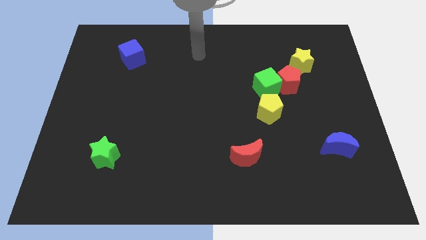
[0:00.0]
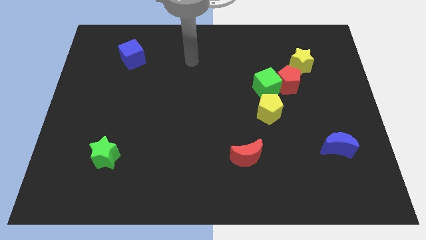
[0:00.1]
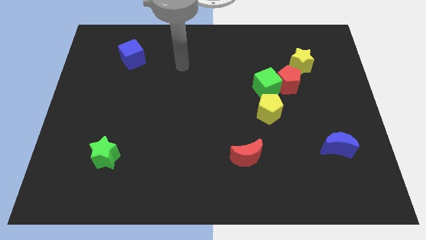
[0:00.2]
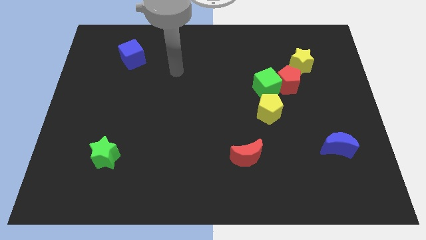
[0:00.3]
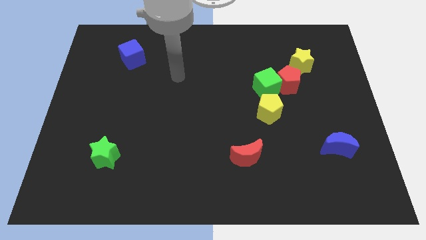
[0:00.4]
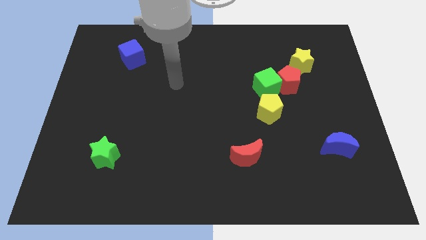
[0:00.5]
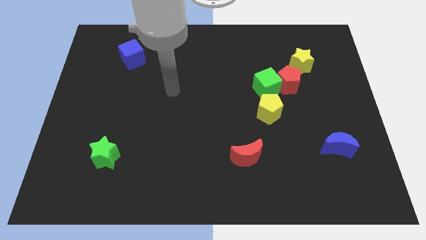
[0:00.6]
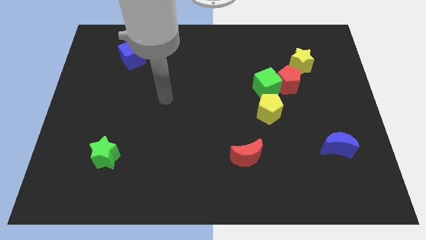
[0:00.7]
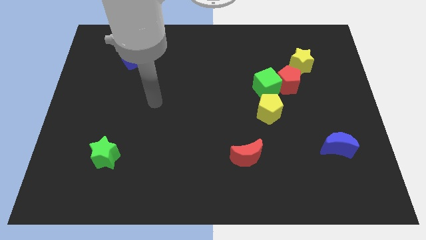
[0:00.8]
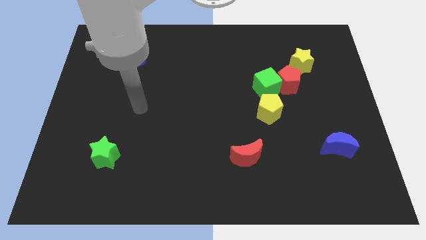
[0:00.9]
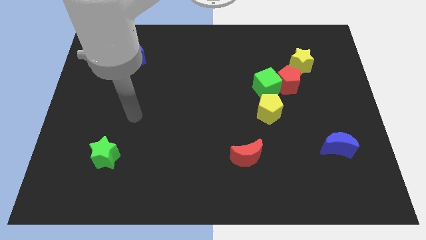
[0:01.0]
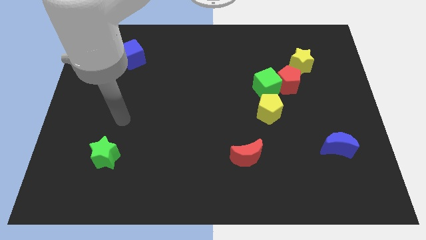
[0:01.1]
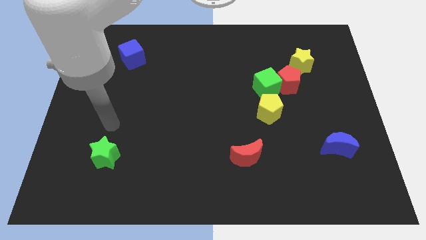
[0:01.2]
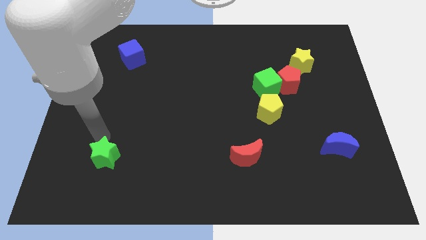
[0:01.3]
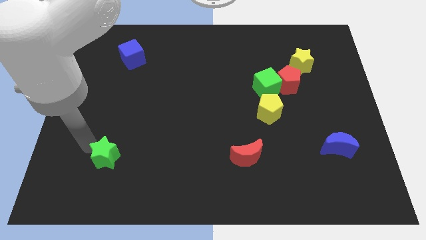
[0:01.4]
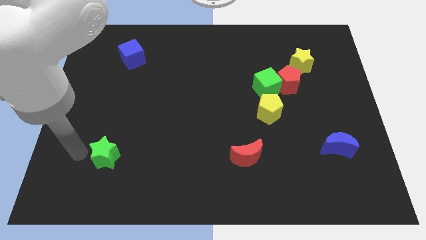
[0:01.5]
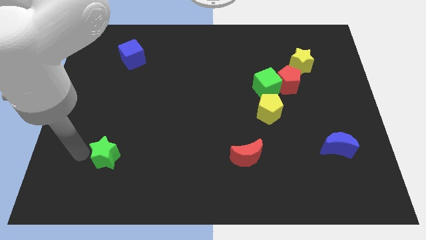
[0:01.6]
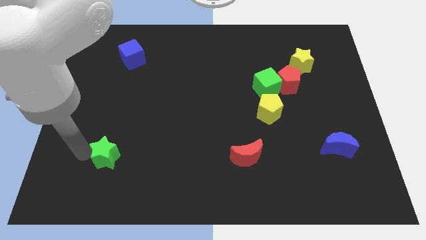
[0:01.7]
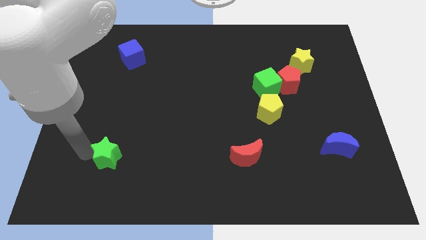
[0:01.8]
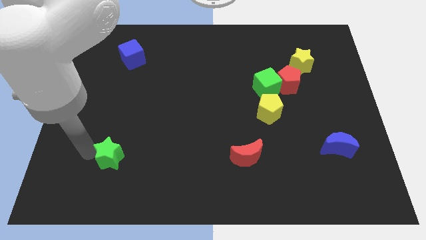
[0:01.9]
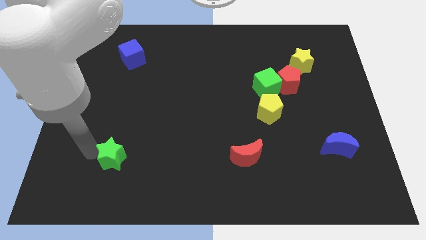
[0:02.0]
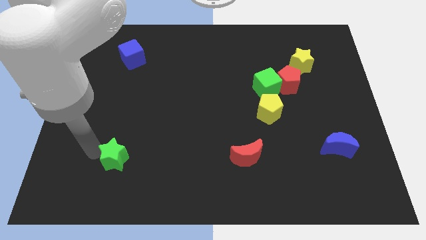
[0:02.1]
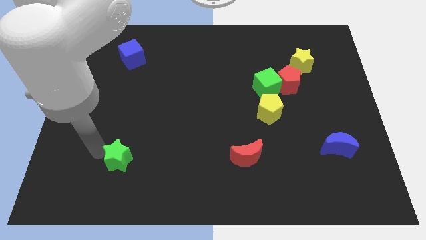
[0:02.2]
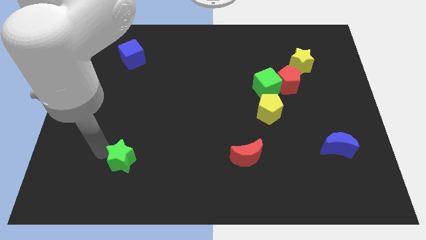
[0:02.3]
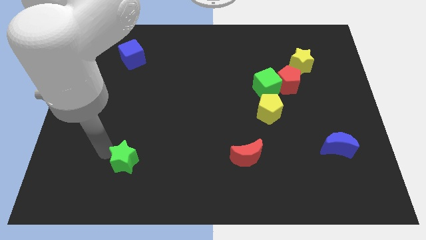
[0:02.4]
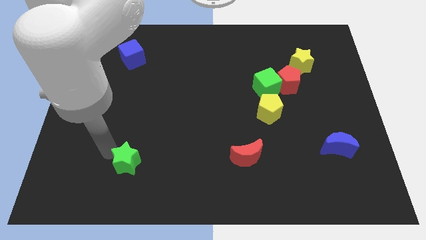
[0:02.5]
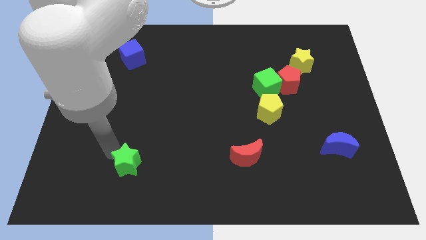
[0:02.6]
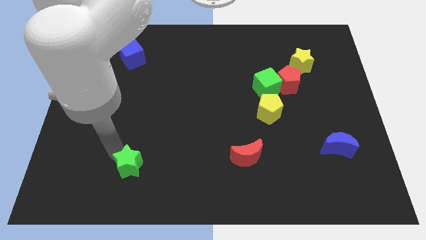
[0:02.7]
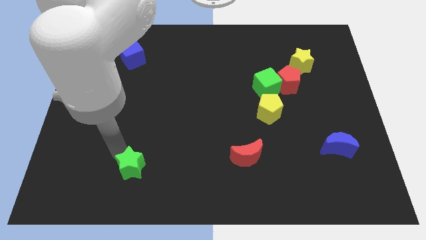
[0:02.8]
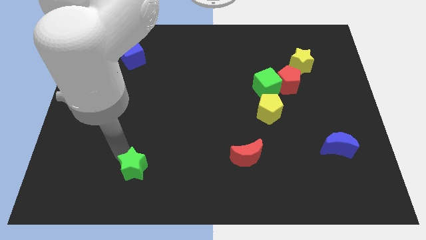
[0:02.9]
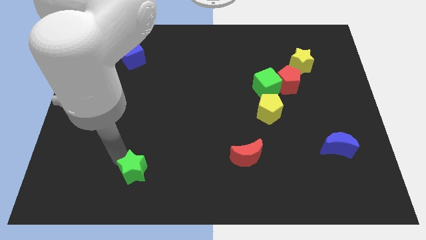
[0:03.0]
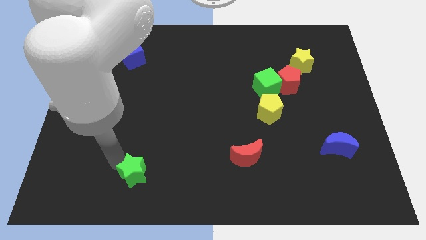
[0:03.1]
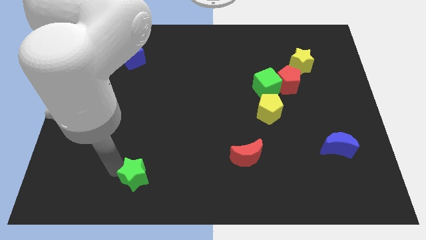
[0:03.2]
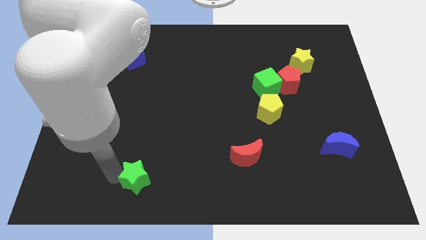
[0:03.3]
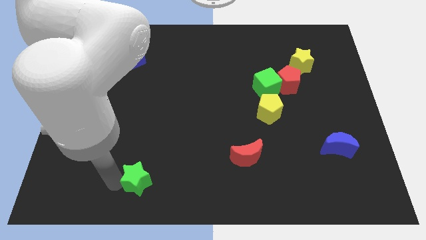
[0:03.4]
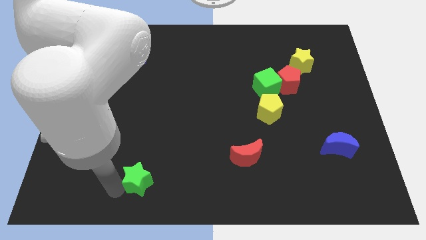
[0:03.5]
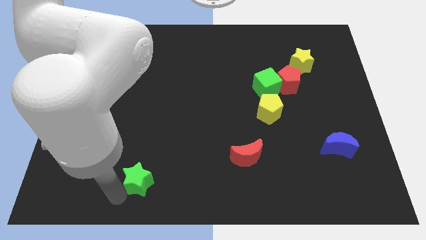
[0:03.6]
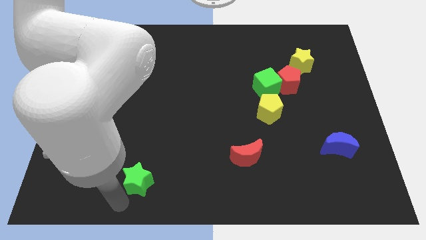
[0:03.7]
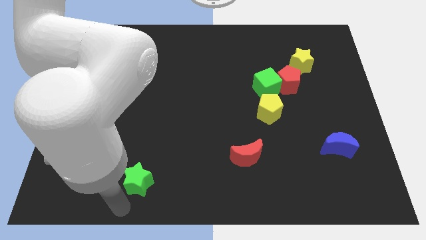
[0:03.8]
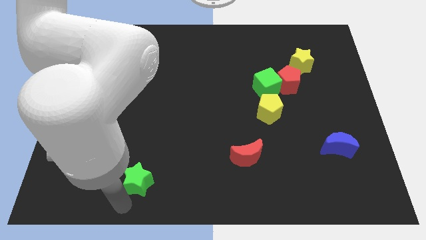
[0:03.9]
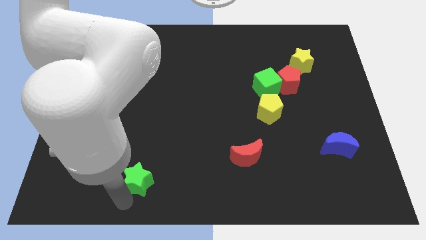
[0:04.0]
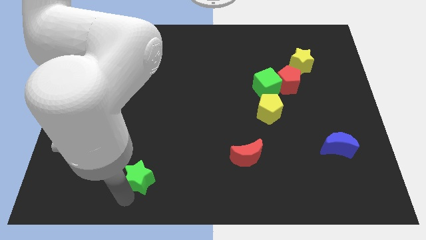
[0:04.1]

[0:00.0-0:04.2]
push the green star right a little bit

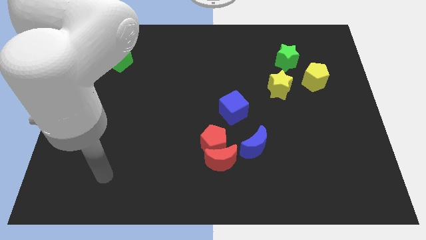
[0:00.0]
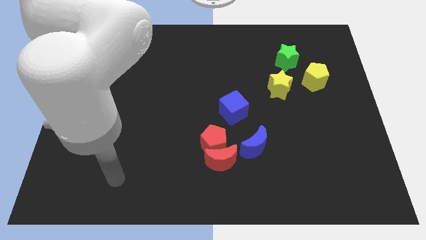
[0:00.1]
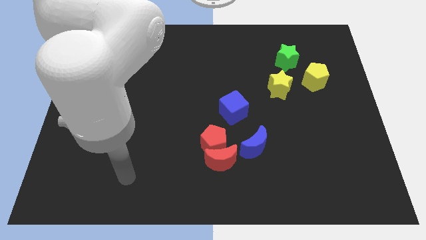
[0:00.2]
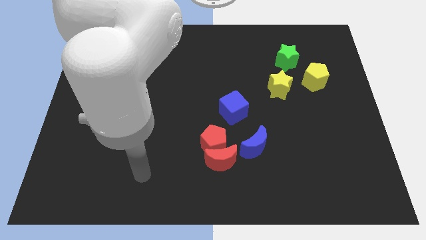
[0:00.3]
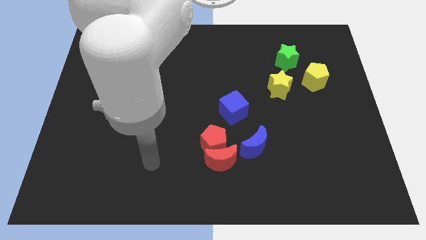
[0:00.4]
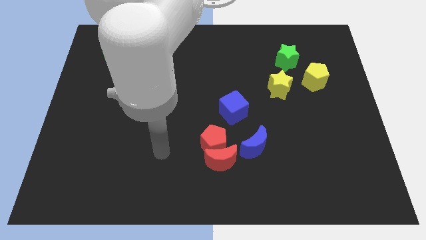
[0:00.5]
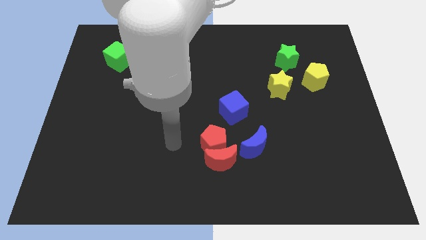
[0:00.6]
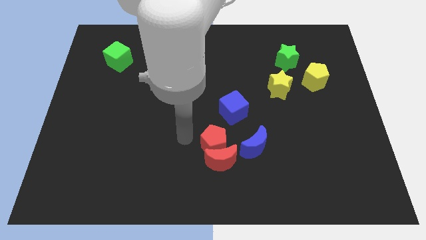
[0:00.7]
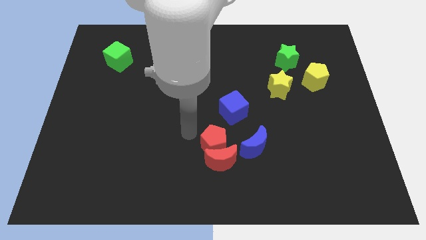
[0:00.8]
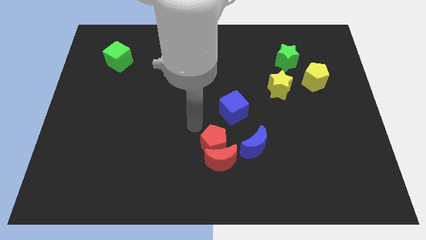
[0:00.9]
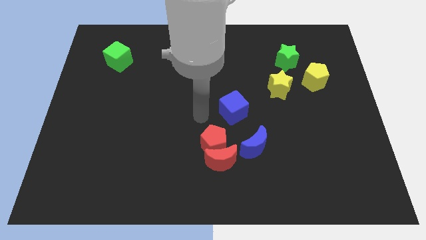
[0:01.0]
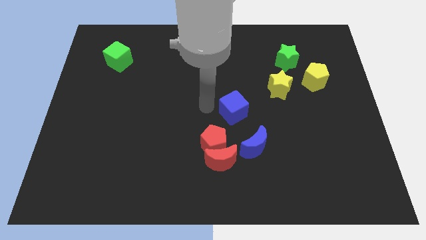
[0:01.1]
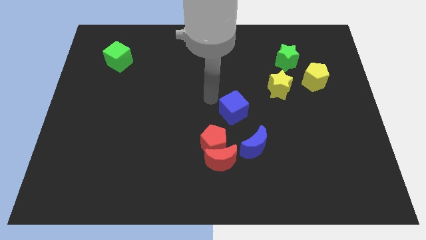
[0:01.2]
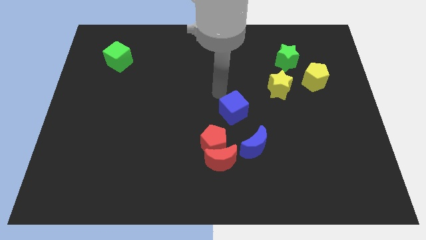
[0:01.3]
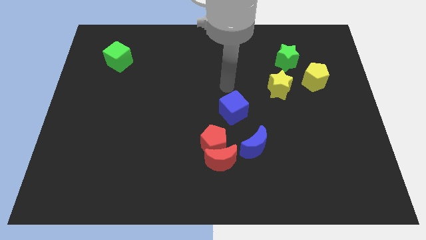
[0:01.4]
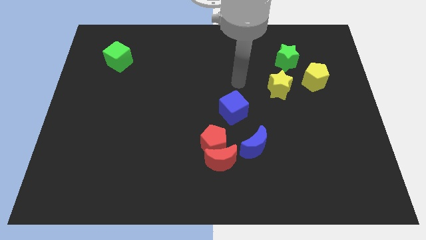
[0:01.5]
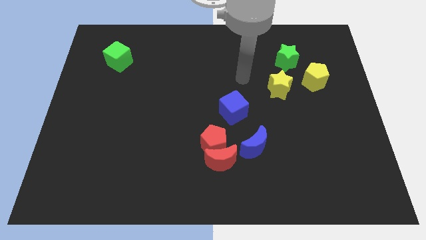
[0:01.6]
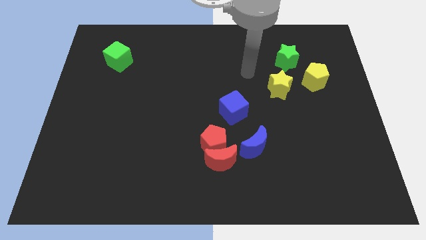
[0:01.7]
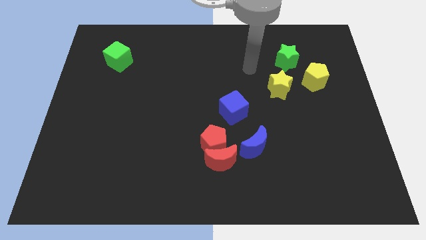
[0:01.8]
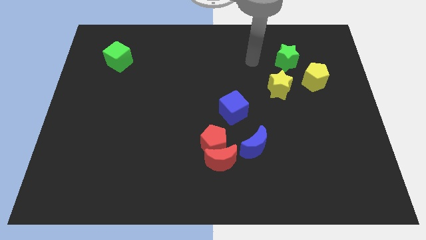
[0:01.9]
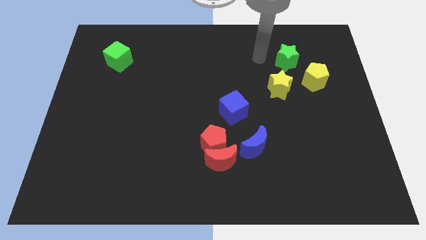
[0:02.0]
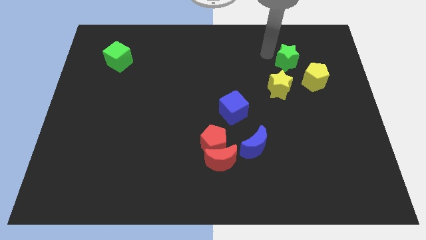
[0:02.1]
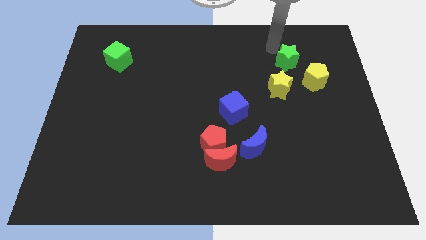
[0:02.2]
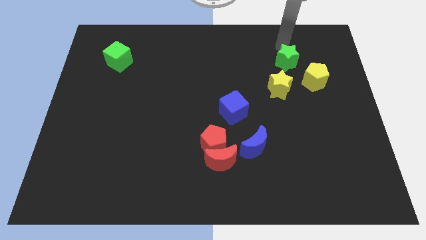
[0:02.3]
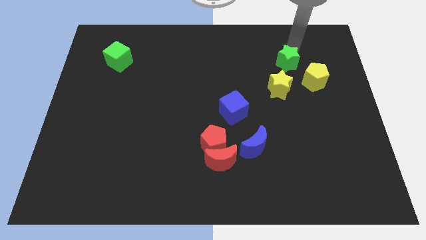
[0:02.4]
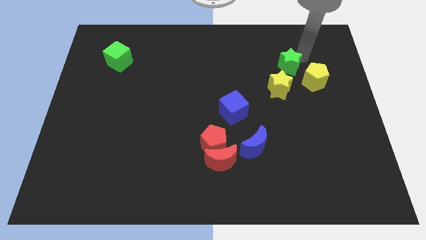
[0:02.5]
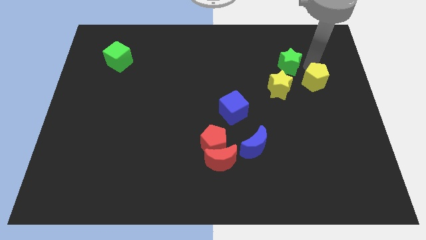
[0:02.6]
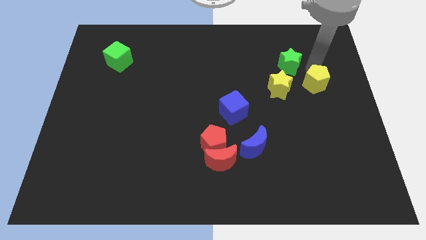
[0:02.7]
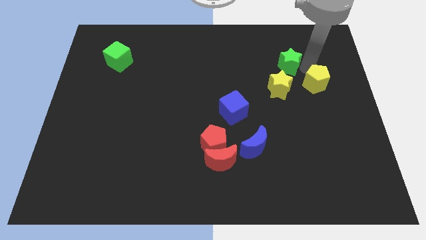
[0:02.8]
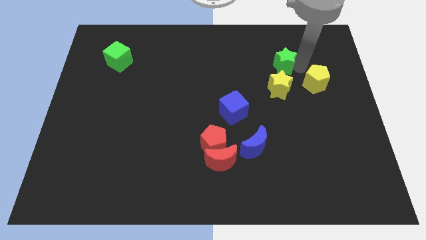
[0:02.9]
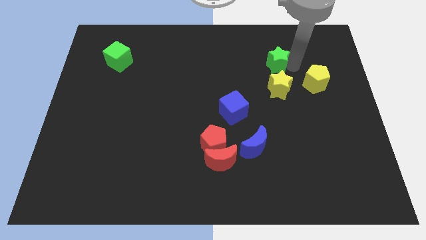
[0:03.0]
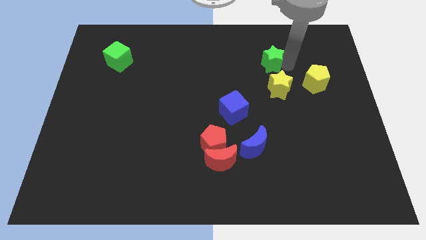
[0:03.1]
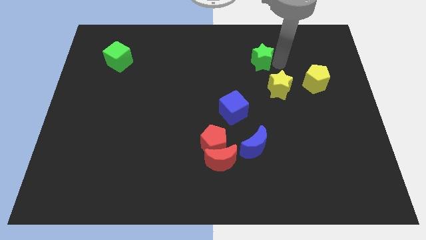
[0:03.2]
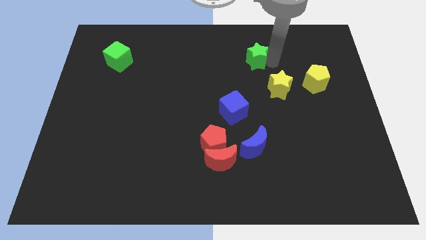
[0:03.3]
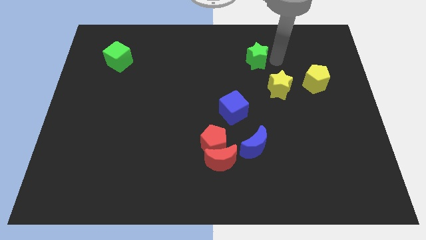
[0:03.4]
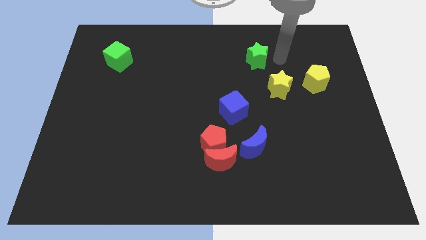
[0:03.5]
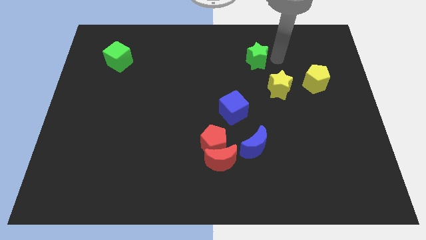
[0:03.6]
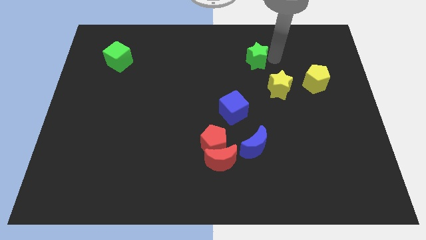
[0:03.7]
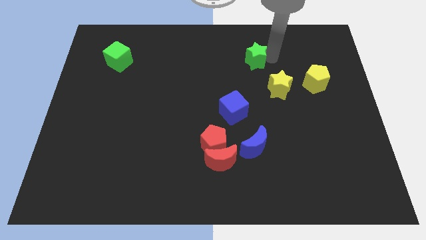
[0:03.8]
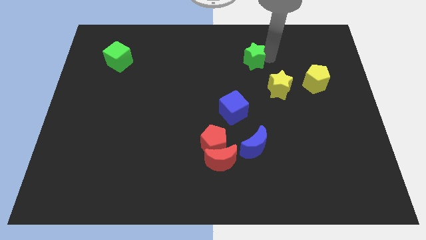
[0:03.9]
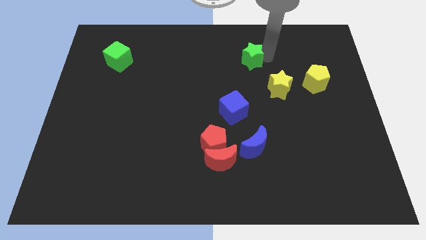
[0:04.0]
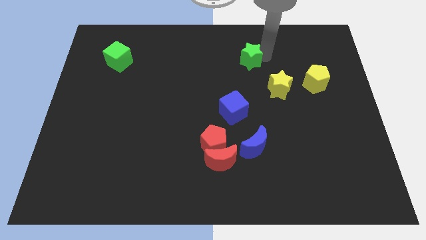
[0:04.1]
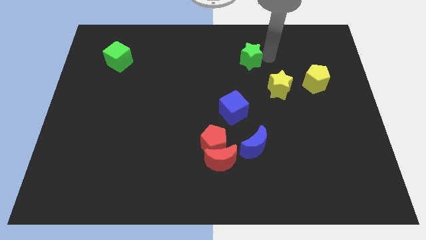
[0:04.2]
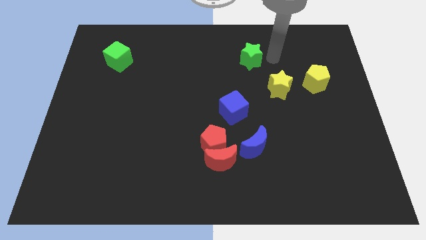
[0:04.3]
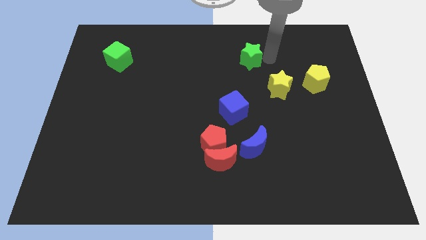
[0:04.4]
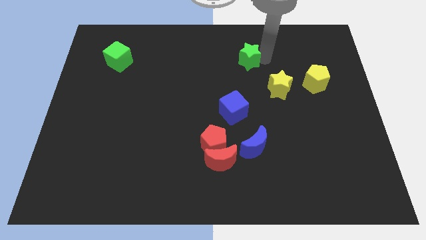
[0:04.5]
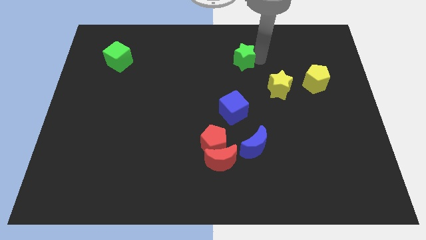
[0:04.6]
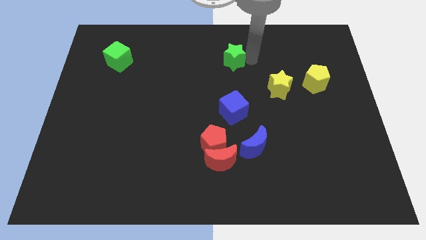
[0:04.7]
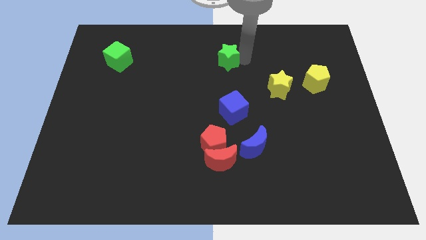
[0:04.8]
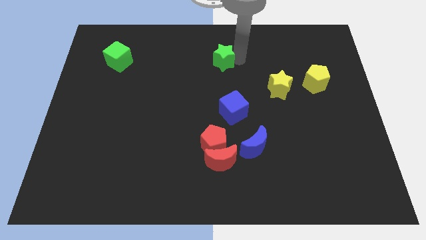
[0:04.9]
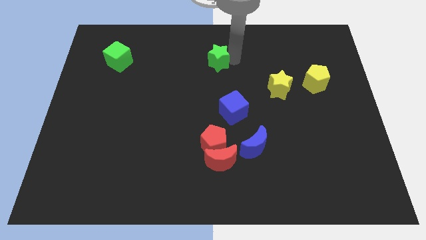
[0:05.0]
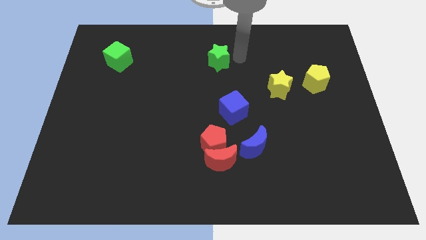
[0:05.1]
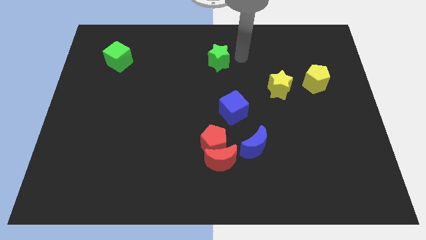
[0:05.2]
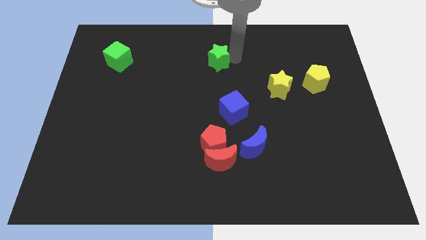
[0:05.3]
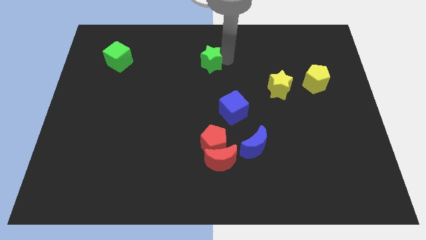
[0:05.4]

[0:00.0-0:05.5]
slide the green star left
